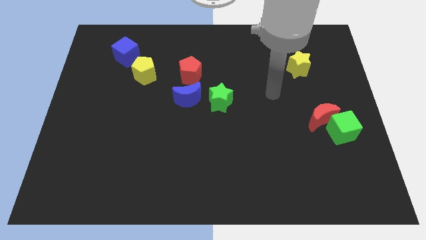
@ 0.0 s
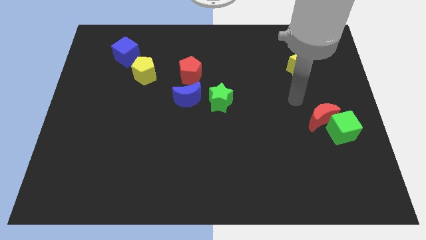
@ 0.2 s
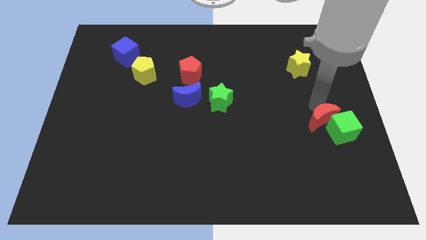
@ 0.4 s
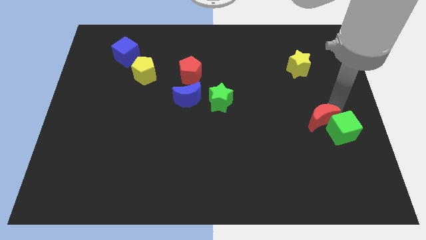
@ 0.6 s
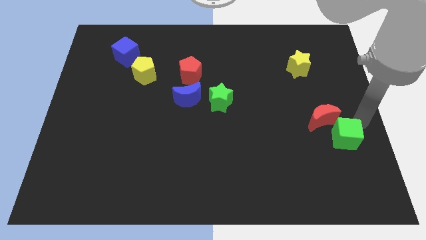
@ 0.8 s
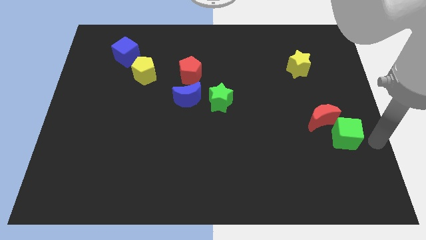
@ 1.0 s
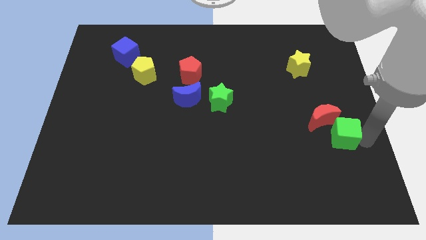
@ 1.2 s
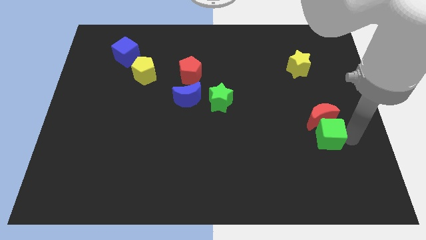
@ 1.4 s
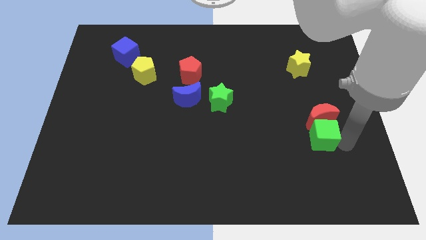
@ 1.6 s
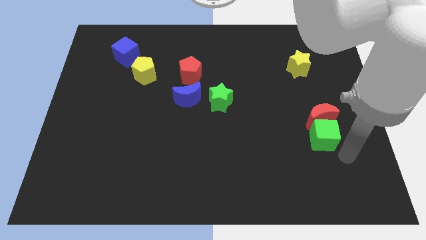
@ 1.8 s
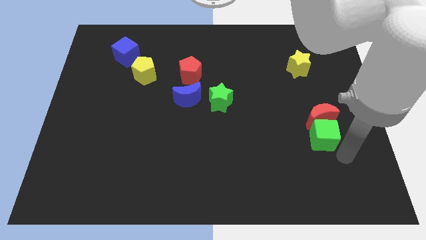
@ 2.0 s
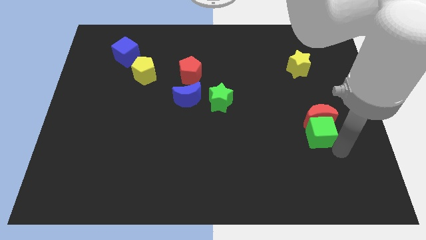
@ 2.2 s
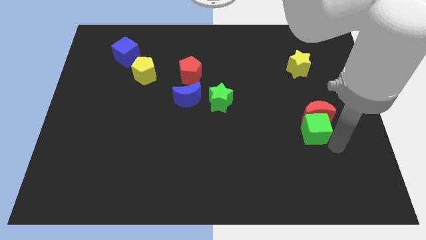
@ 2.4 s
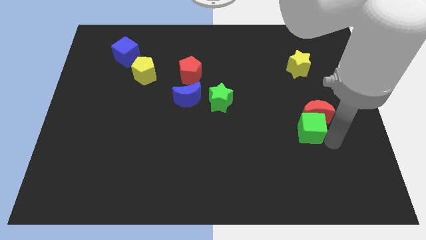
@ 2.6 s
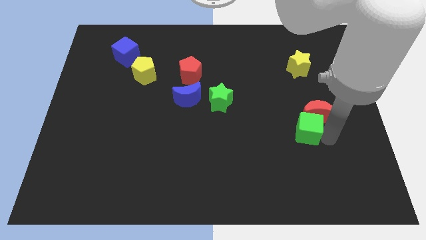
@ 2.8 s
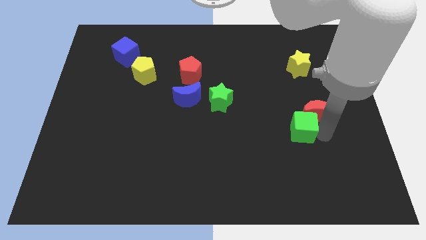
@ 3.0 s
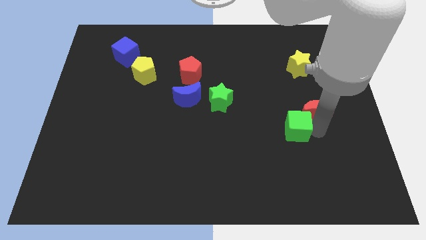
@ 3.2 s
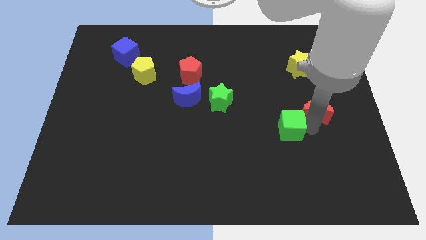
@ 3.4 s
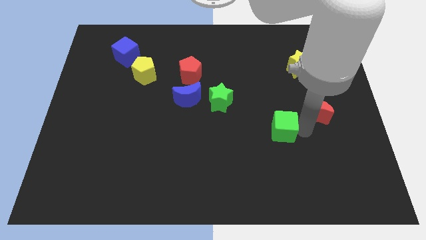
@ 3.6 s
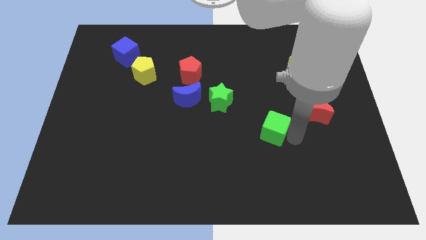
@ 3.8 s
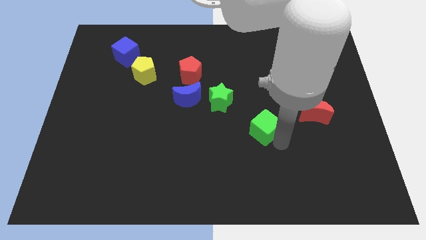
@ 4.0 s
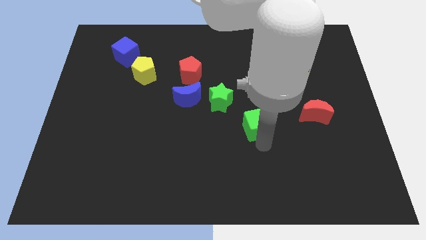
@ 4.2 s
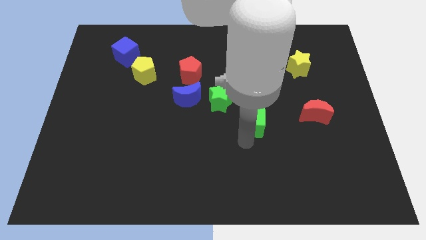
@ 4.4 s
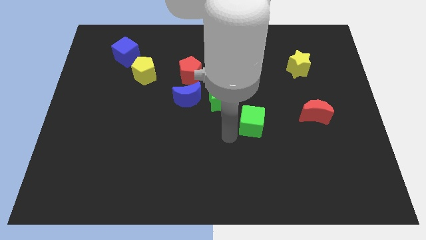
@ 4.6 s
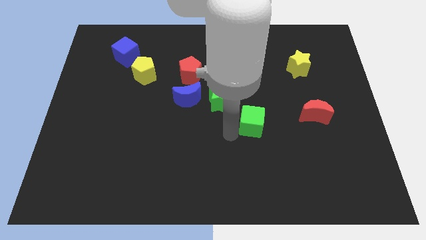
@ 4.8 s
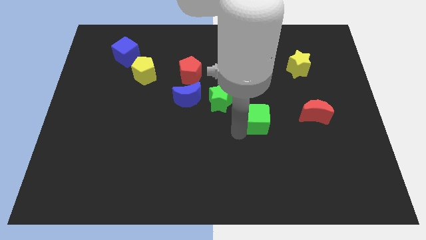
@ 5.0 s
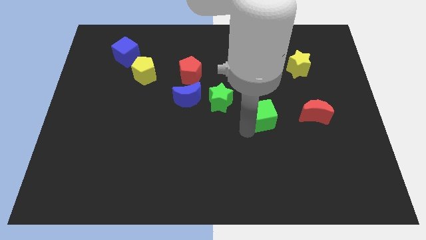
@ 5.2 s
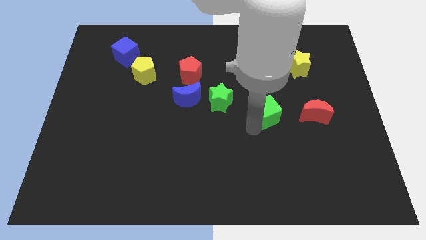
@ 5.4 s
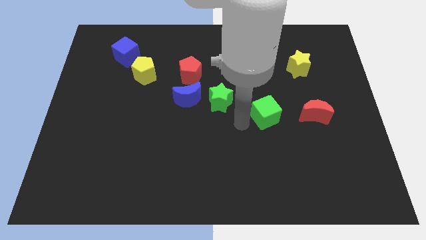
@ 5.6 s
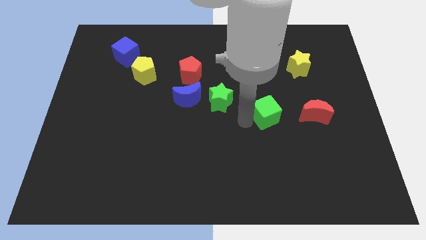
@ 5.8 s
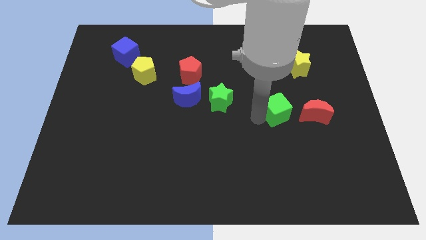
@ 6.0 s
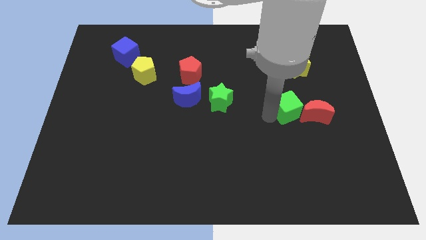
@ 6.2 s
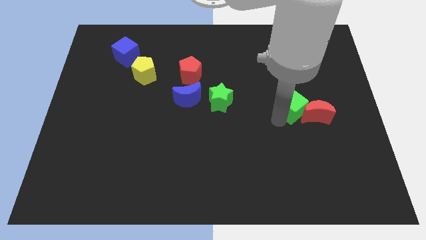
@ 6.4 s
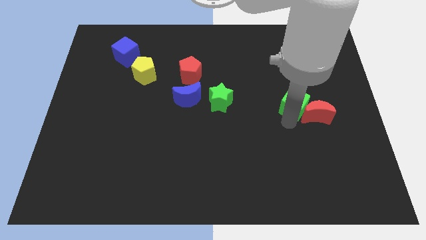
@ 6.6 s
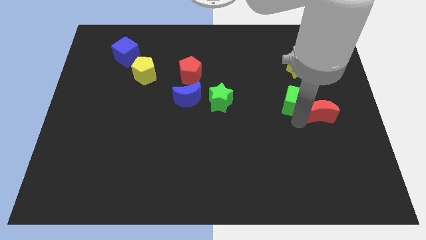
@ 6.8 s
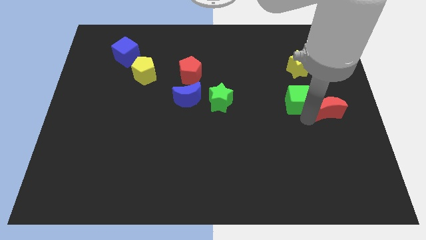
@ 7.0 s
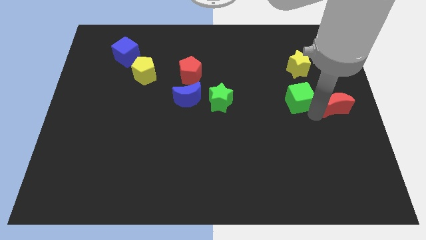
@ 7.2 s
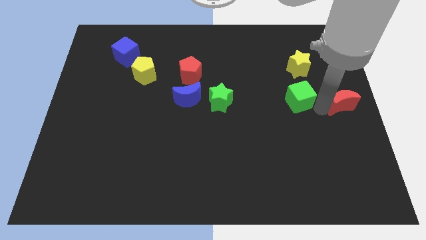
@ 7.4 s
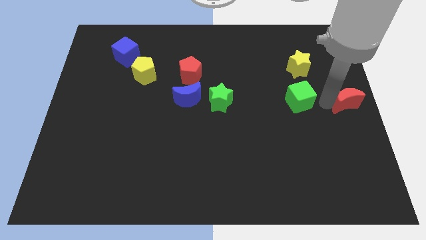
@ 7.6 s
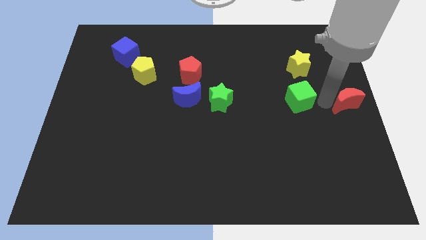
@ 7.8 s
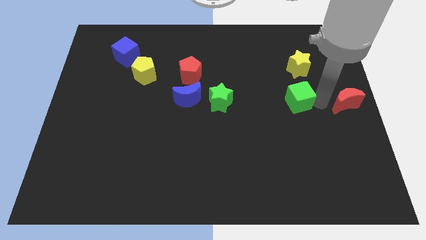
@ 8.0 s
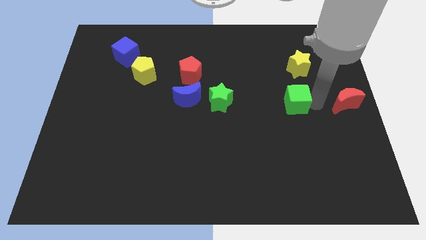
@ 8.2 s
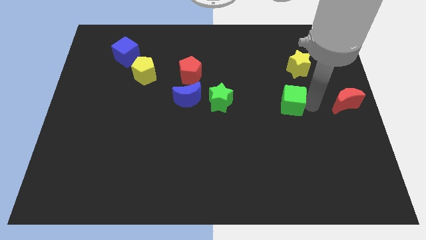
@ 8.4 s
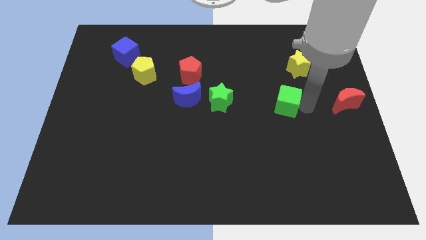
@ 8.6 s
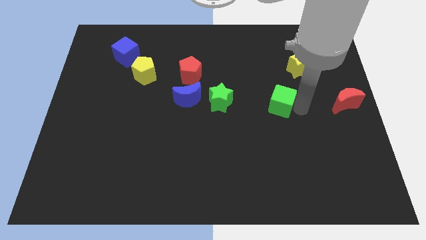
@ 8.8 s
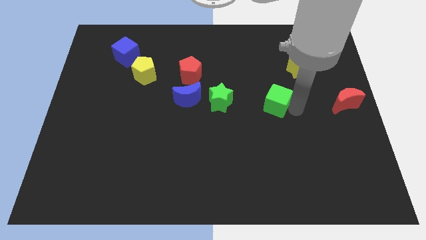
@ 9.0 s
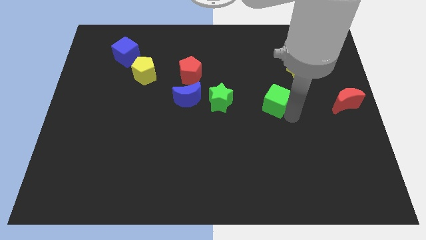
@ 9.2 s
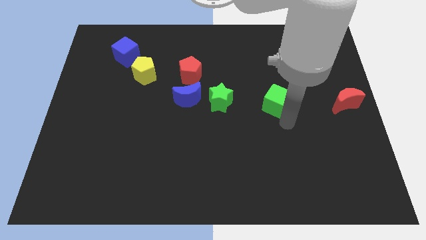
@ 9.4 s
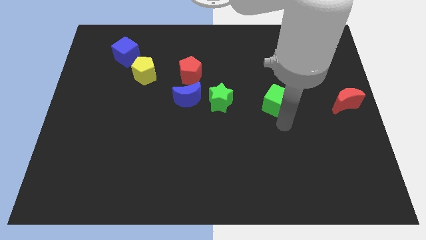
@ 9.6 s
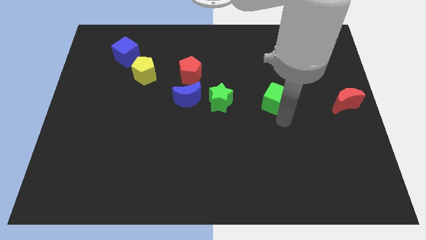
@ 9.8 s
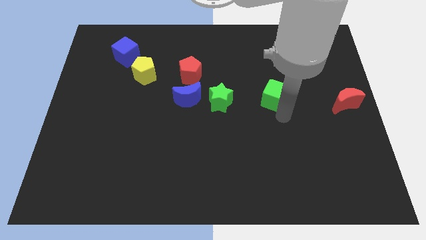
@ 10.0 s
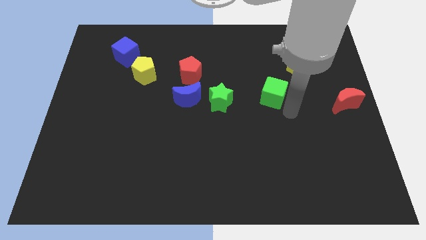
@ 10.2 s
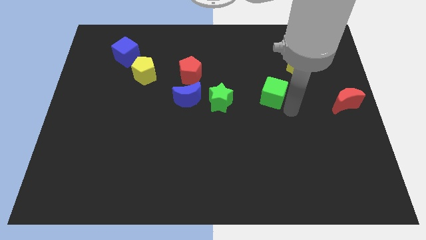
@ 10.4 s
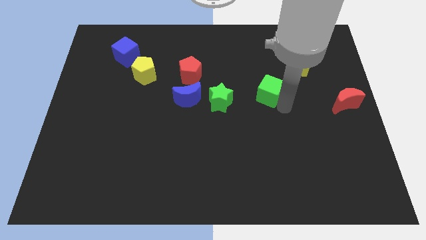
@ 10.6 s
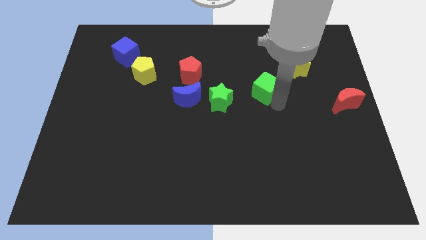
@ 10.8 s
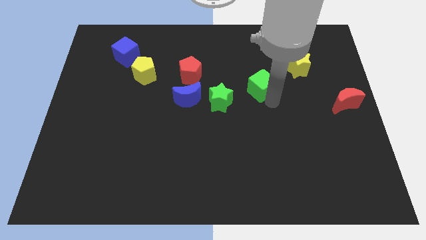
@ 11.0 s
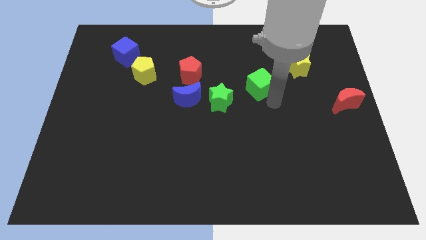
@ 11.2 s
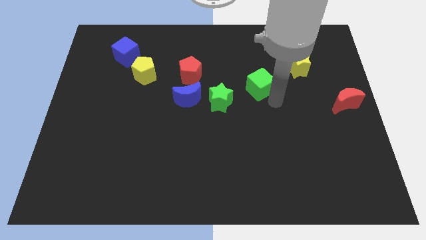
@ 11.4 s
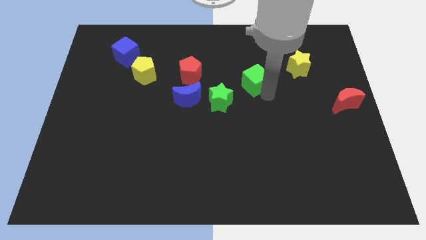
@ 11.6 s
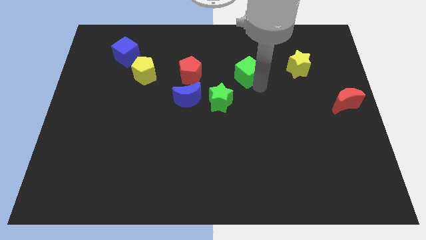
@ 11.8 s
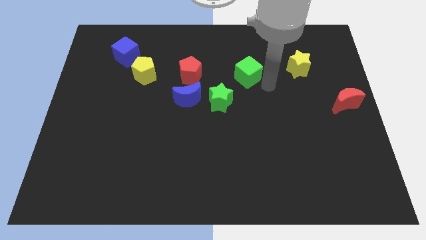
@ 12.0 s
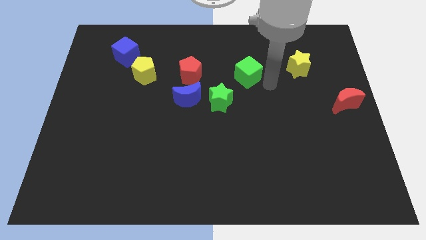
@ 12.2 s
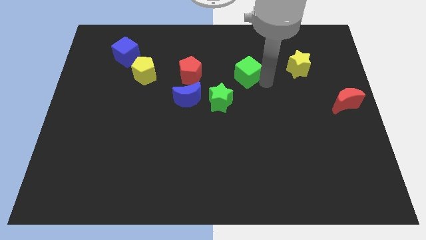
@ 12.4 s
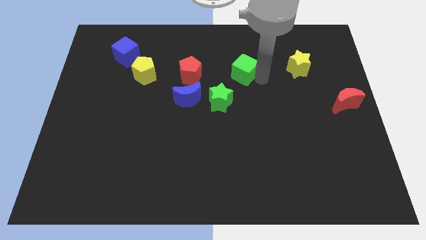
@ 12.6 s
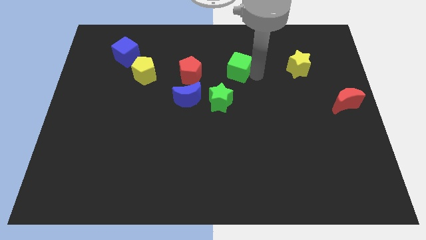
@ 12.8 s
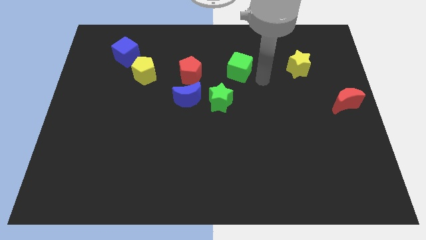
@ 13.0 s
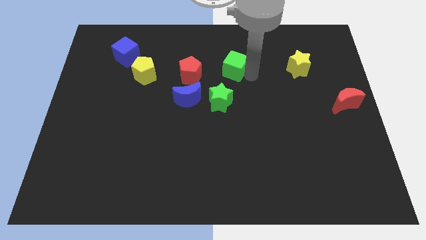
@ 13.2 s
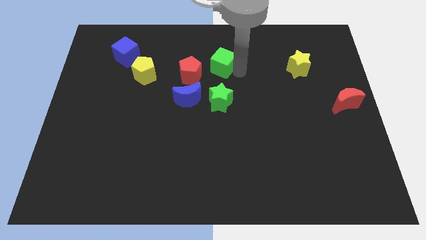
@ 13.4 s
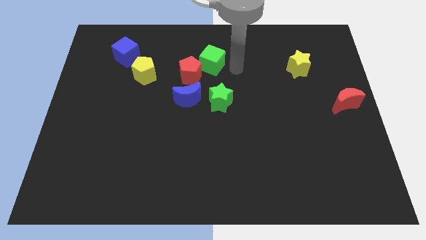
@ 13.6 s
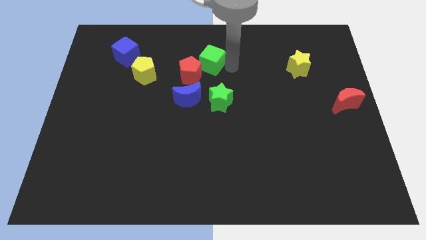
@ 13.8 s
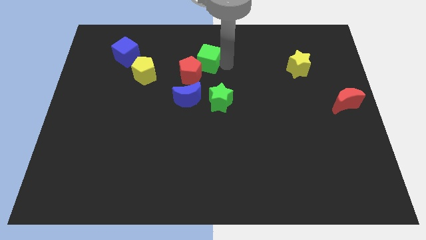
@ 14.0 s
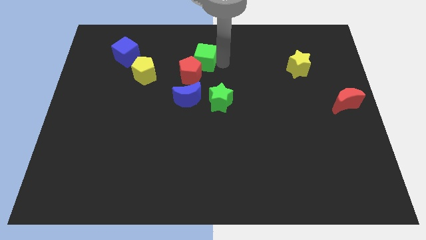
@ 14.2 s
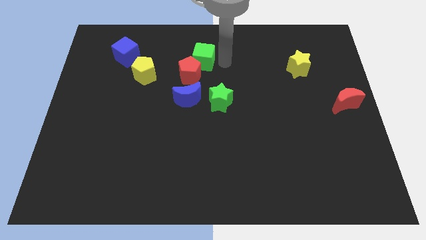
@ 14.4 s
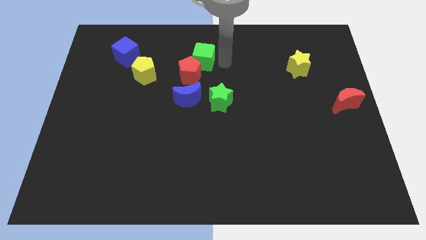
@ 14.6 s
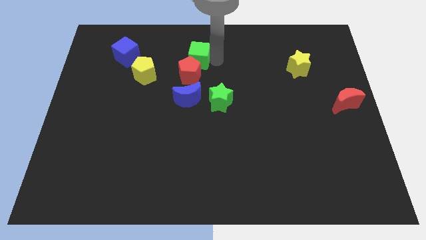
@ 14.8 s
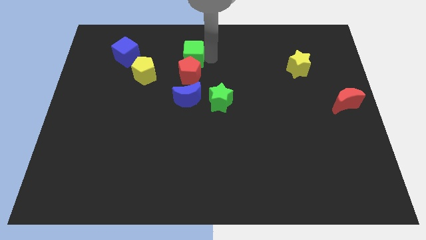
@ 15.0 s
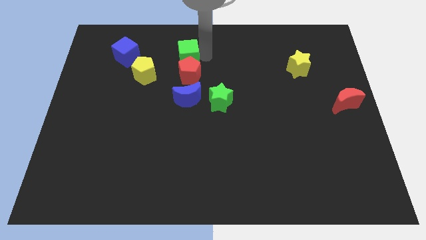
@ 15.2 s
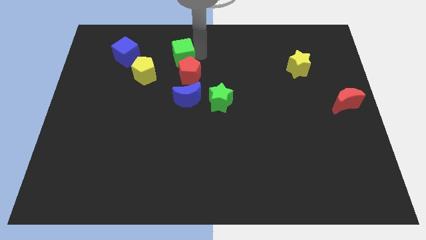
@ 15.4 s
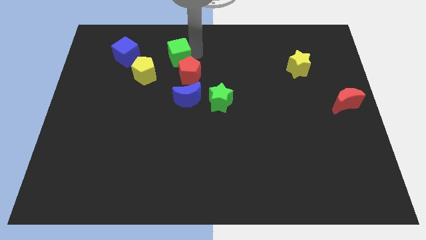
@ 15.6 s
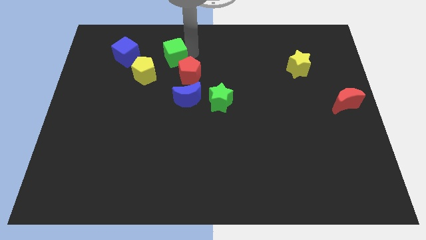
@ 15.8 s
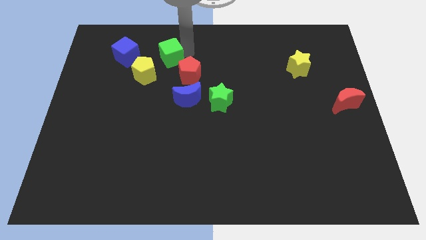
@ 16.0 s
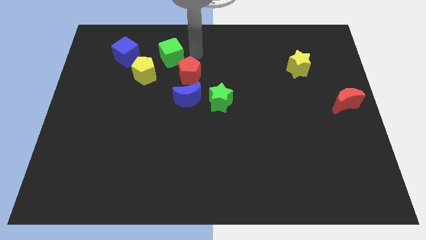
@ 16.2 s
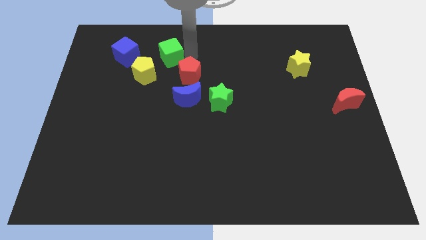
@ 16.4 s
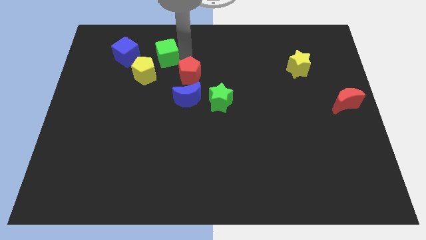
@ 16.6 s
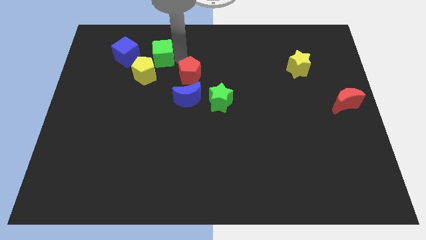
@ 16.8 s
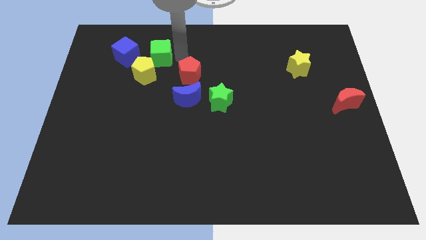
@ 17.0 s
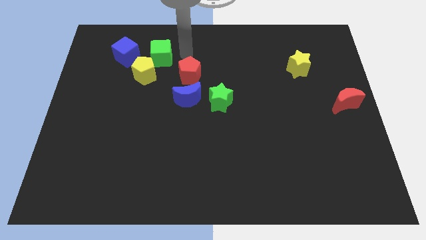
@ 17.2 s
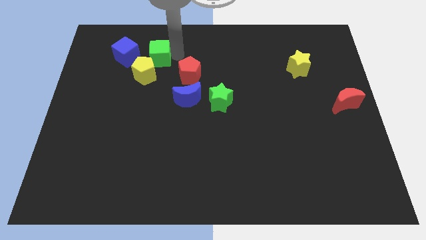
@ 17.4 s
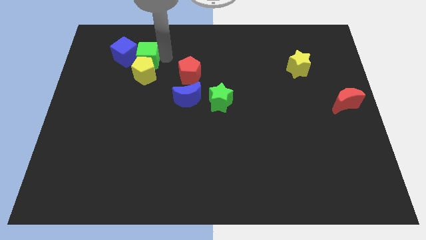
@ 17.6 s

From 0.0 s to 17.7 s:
slide the green cube close to the blue cube
